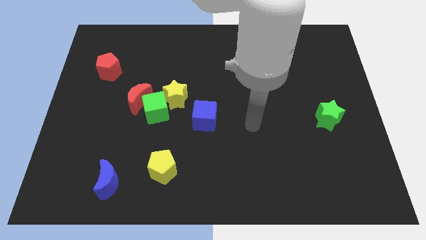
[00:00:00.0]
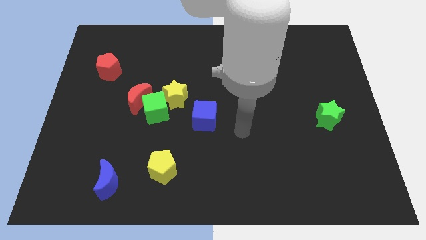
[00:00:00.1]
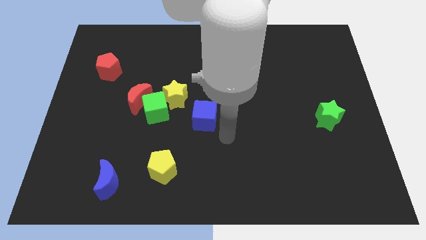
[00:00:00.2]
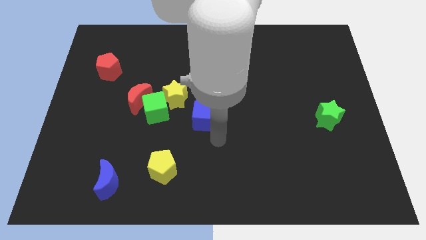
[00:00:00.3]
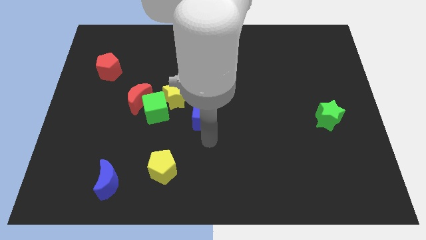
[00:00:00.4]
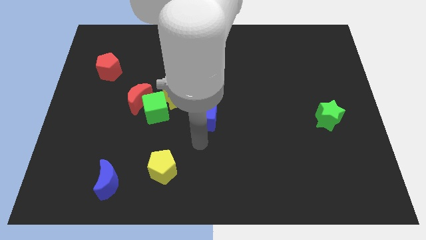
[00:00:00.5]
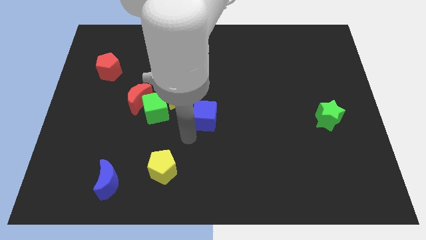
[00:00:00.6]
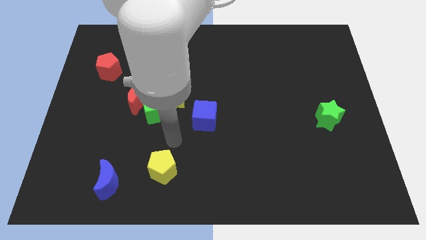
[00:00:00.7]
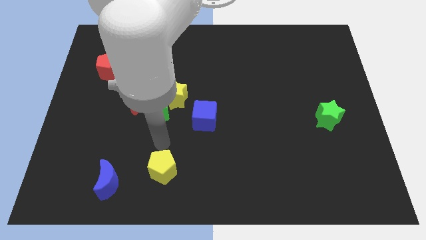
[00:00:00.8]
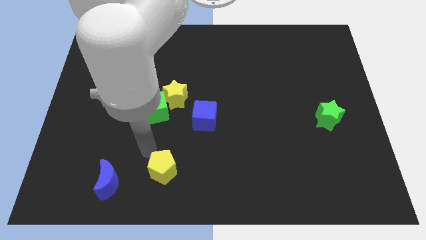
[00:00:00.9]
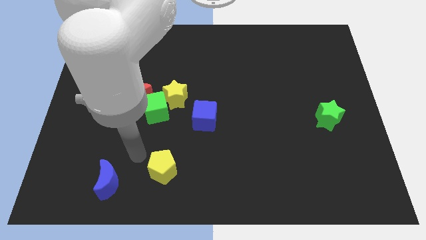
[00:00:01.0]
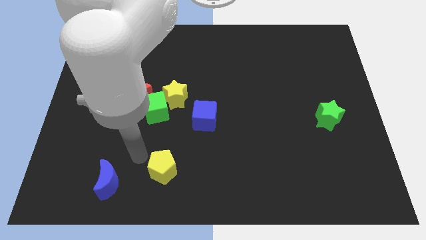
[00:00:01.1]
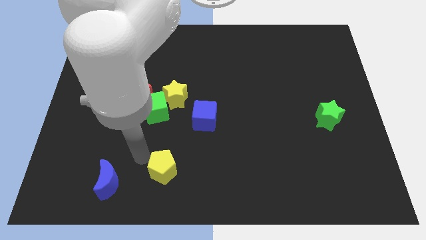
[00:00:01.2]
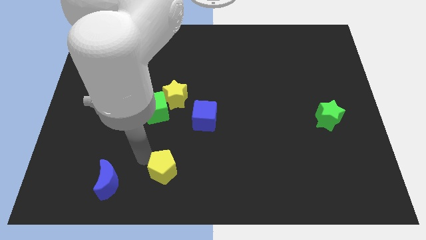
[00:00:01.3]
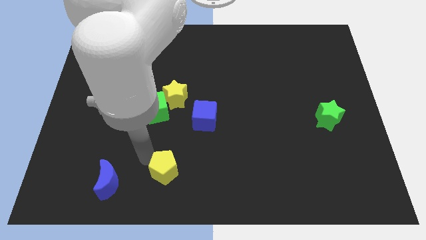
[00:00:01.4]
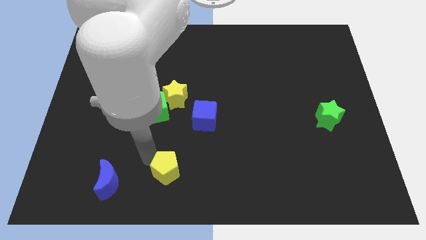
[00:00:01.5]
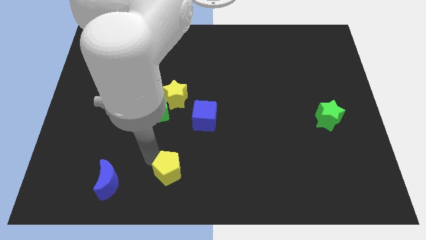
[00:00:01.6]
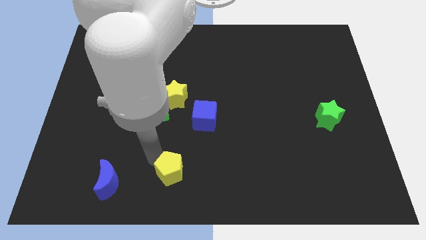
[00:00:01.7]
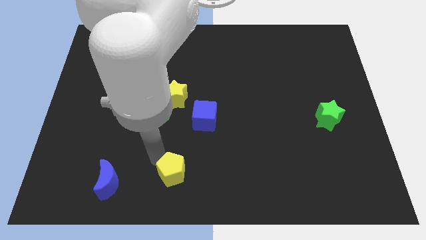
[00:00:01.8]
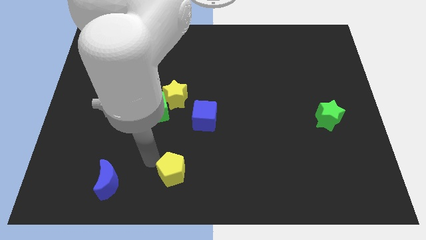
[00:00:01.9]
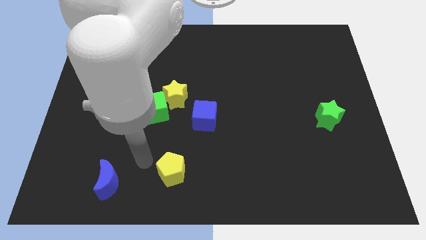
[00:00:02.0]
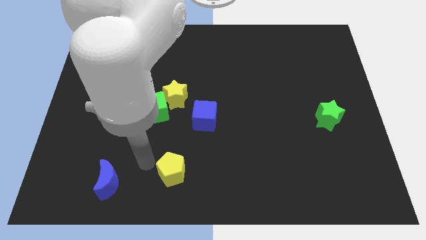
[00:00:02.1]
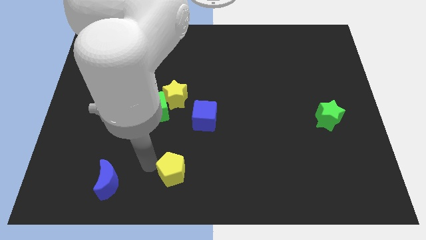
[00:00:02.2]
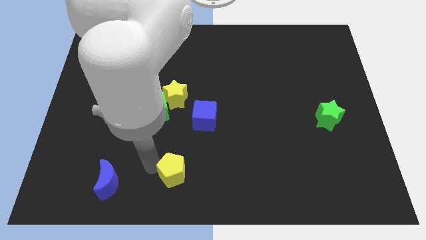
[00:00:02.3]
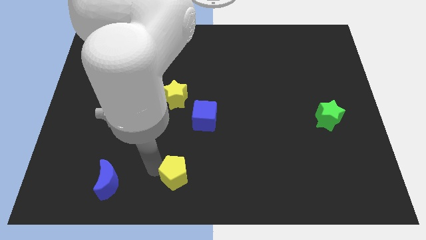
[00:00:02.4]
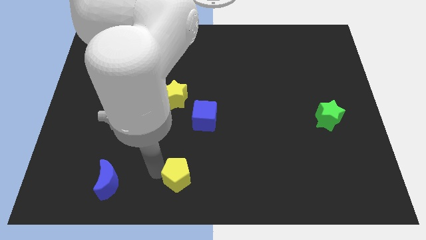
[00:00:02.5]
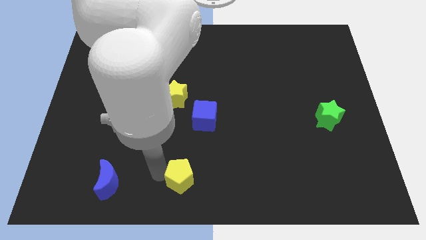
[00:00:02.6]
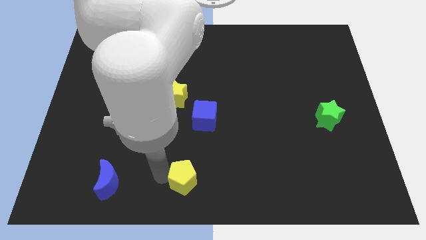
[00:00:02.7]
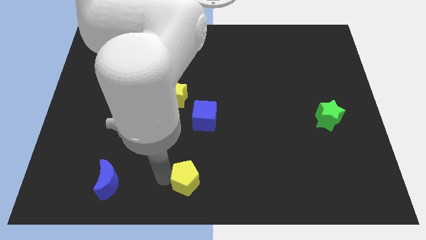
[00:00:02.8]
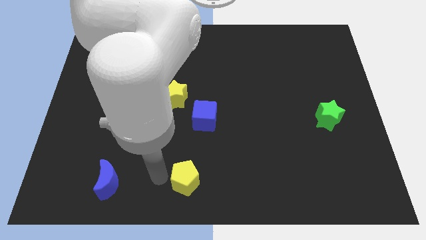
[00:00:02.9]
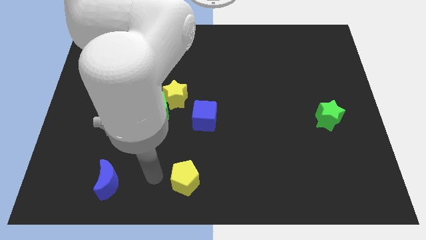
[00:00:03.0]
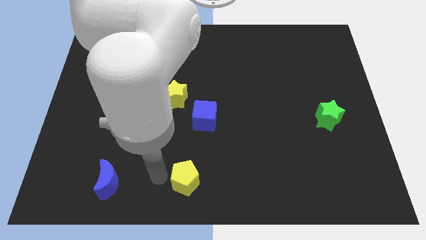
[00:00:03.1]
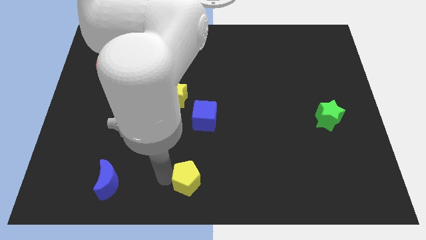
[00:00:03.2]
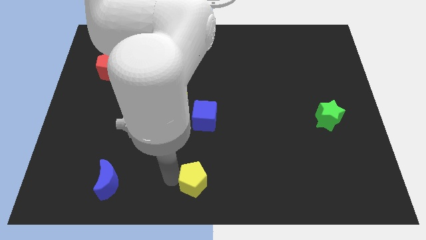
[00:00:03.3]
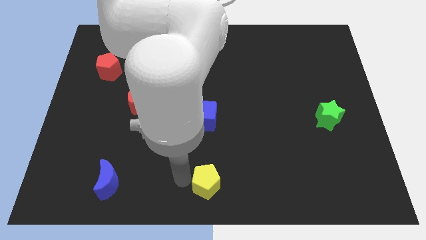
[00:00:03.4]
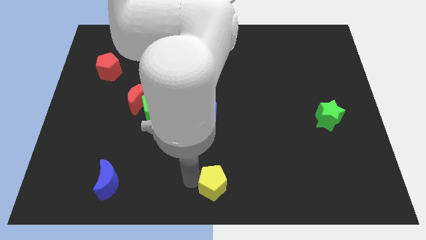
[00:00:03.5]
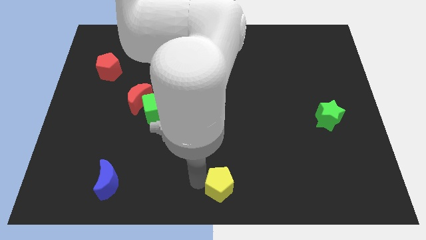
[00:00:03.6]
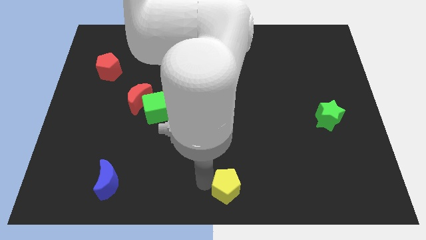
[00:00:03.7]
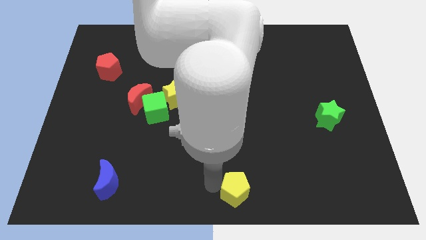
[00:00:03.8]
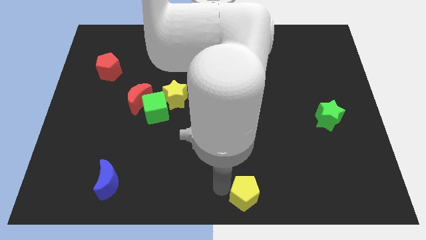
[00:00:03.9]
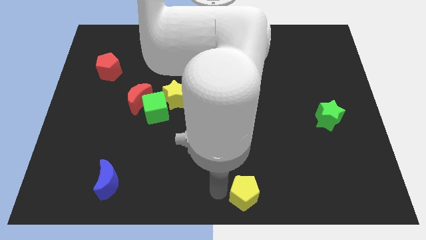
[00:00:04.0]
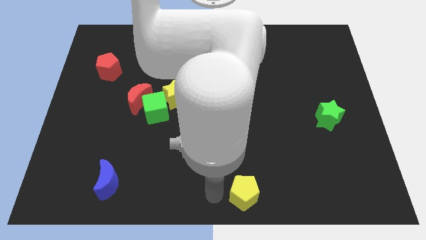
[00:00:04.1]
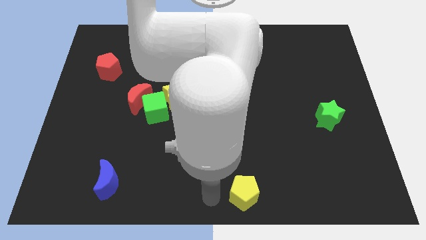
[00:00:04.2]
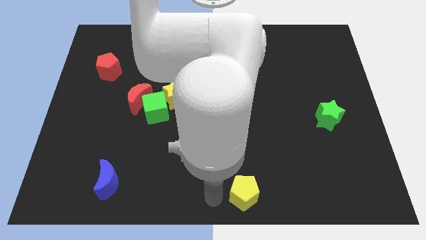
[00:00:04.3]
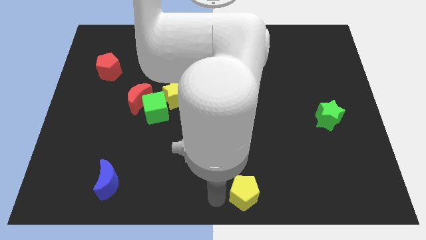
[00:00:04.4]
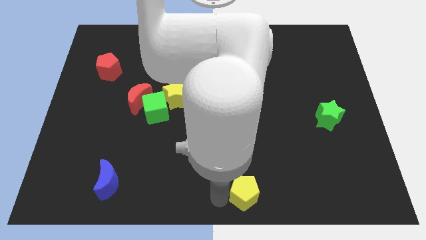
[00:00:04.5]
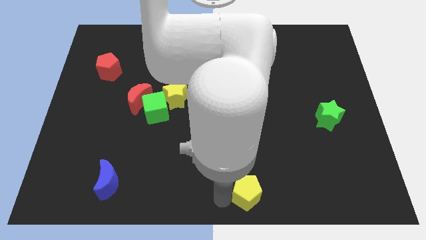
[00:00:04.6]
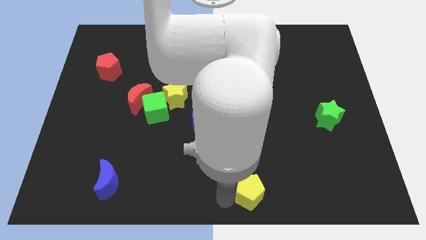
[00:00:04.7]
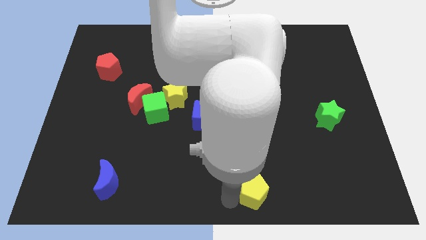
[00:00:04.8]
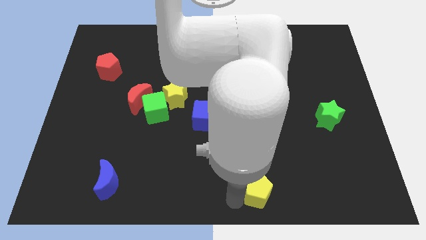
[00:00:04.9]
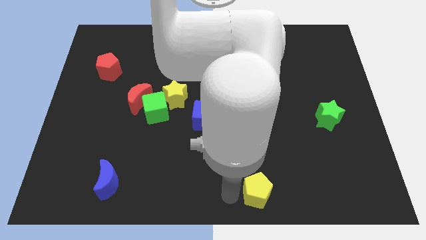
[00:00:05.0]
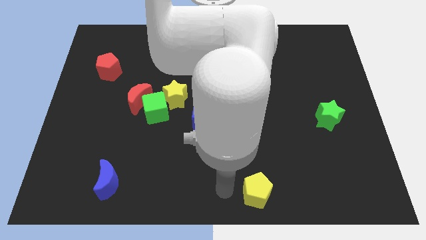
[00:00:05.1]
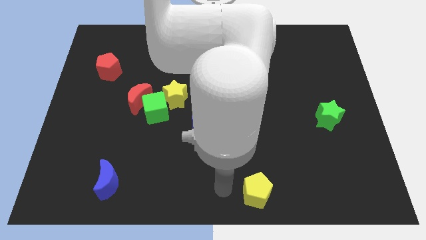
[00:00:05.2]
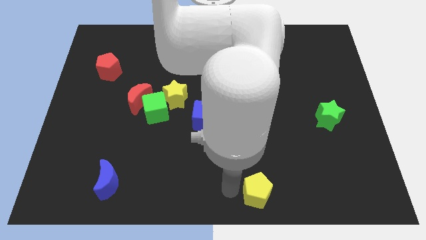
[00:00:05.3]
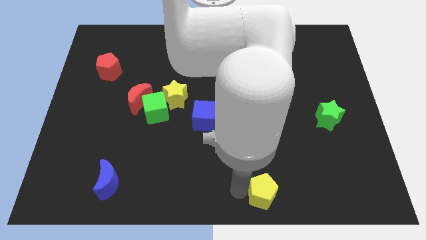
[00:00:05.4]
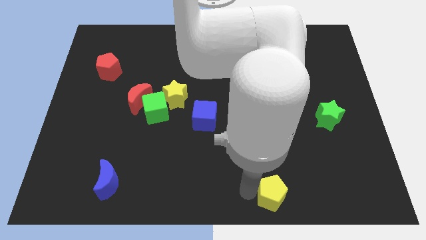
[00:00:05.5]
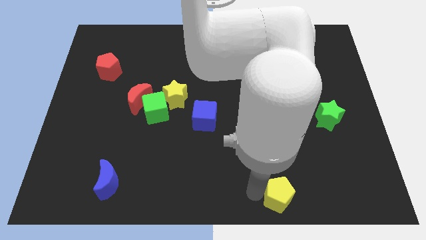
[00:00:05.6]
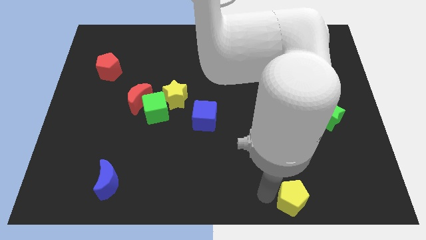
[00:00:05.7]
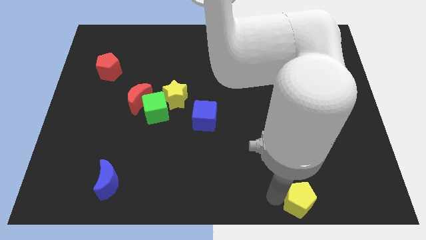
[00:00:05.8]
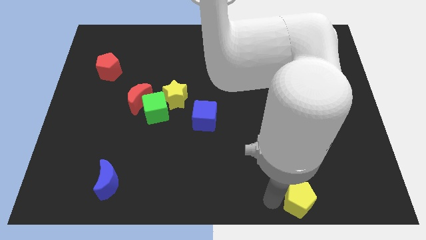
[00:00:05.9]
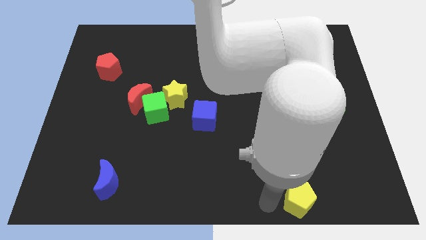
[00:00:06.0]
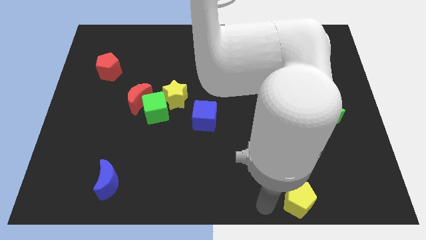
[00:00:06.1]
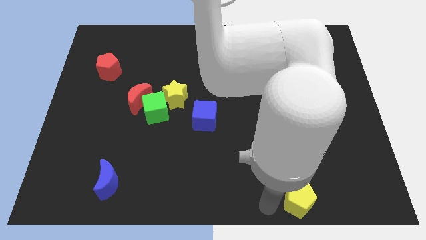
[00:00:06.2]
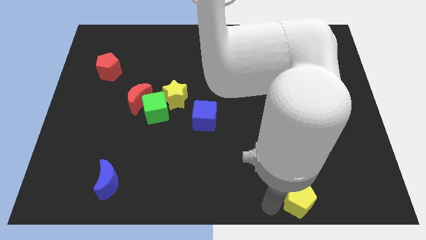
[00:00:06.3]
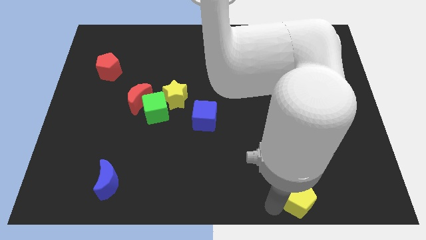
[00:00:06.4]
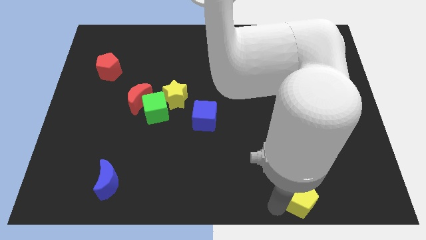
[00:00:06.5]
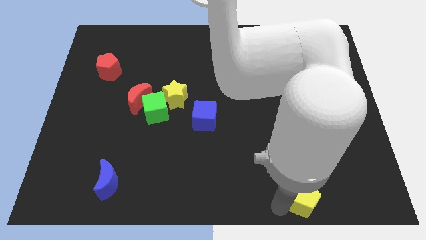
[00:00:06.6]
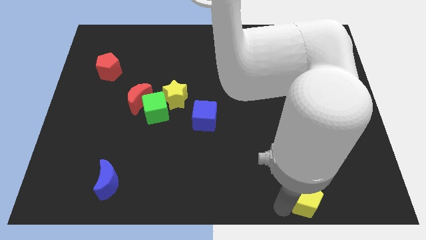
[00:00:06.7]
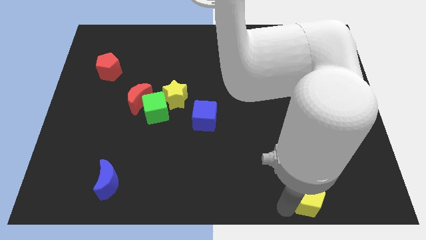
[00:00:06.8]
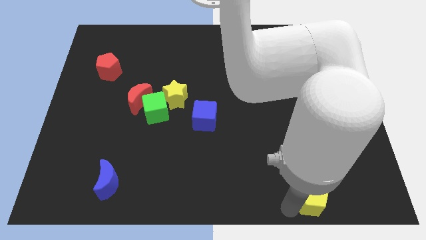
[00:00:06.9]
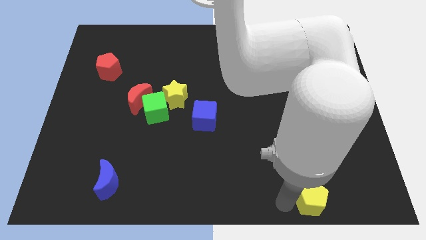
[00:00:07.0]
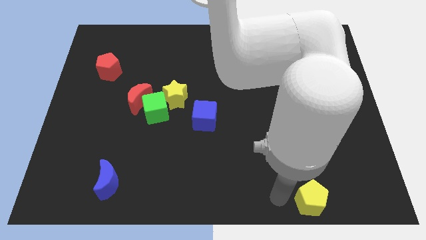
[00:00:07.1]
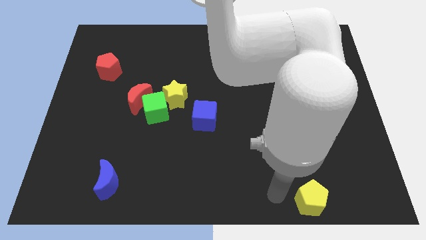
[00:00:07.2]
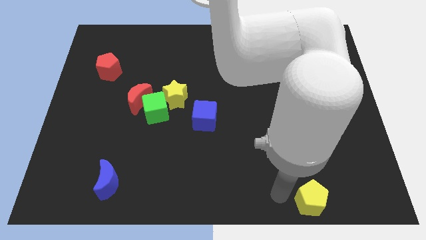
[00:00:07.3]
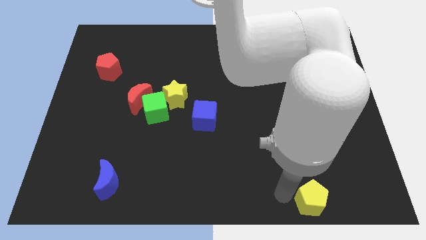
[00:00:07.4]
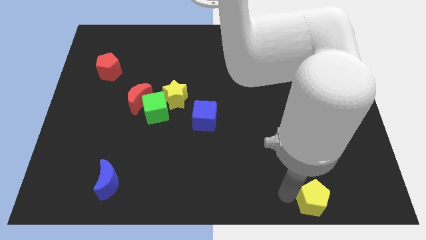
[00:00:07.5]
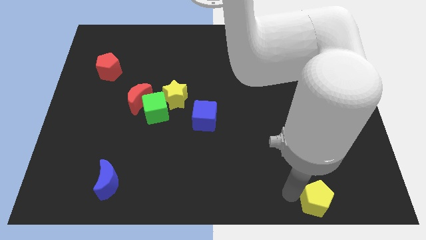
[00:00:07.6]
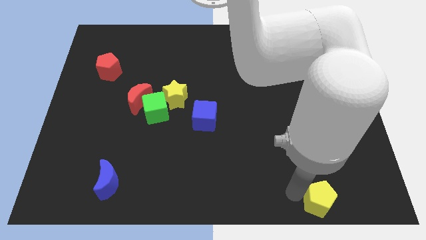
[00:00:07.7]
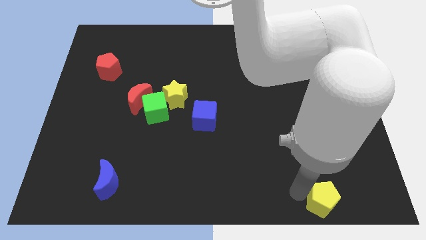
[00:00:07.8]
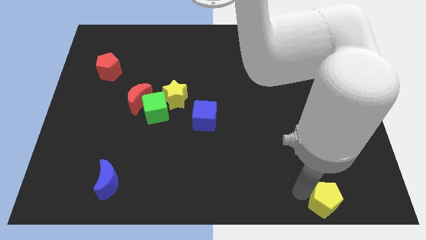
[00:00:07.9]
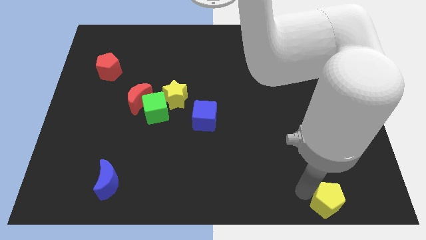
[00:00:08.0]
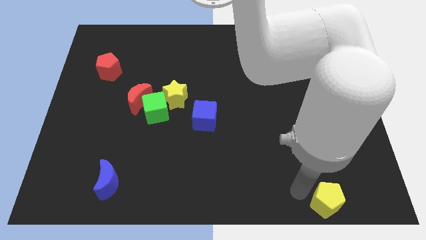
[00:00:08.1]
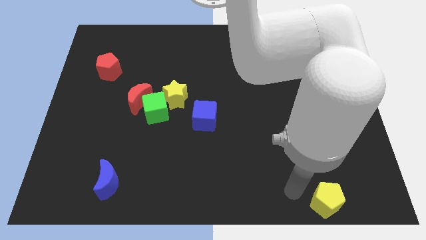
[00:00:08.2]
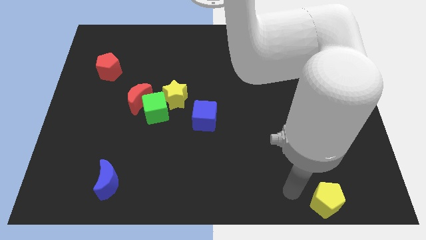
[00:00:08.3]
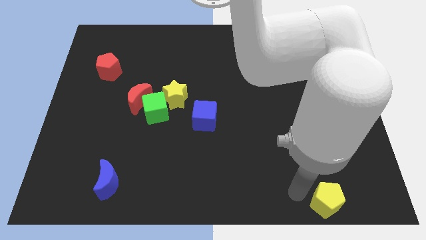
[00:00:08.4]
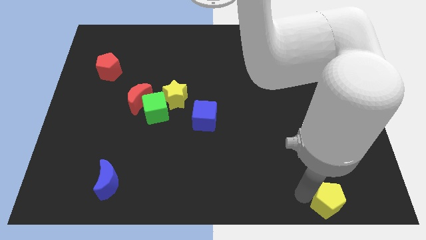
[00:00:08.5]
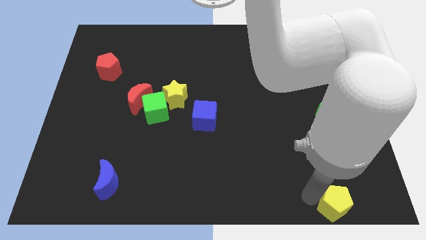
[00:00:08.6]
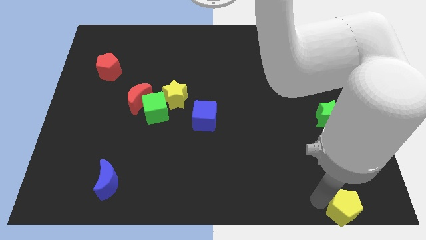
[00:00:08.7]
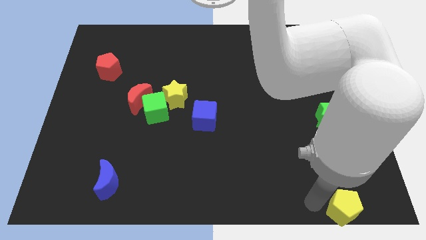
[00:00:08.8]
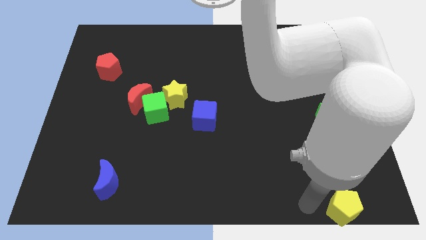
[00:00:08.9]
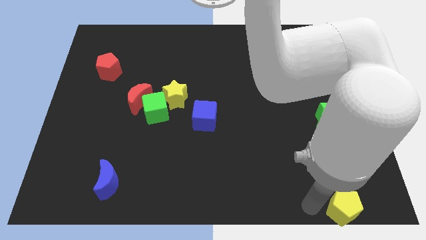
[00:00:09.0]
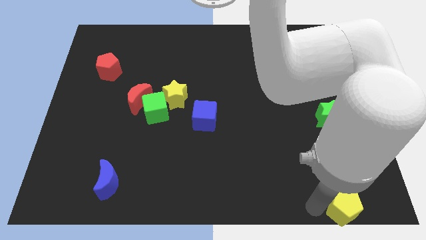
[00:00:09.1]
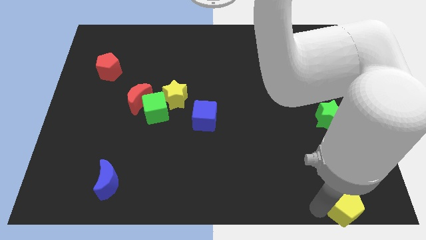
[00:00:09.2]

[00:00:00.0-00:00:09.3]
slide the yellow pentagon to the bottom right corner
